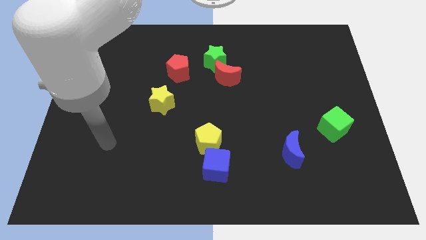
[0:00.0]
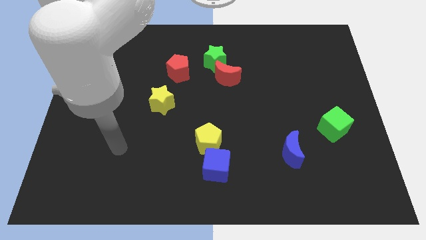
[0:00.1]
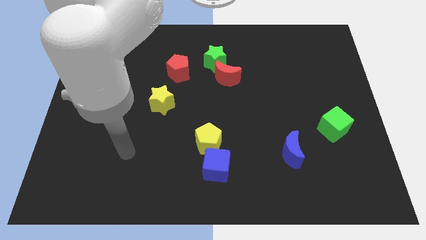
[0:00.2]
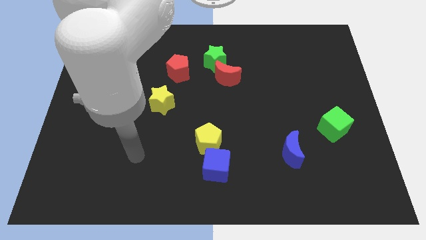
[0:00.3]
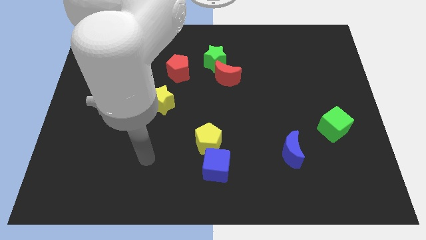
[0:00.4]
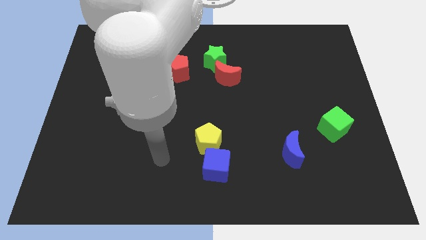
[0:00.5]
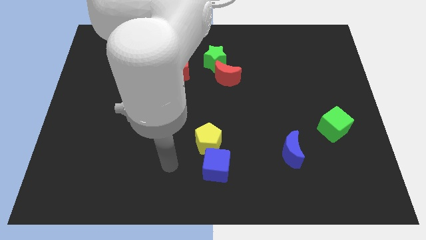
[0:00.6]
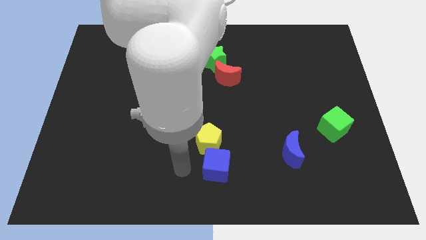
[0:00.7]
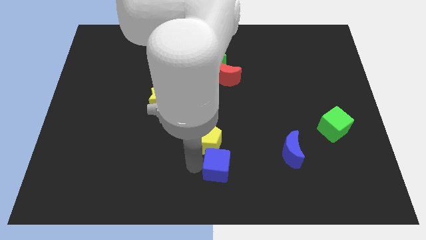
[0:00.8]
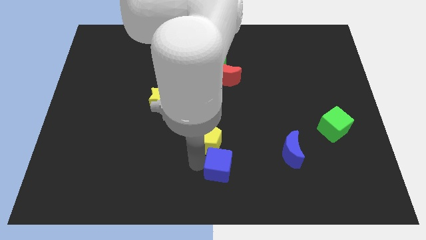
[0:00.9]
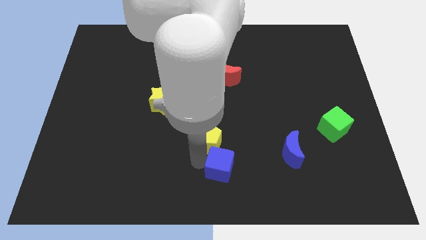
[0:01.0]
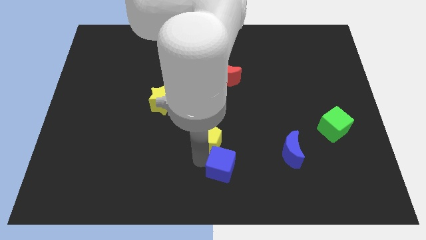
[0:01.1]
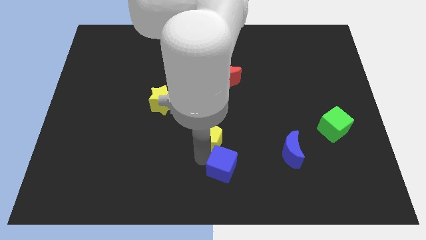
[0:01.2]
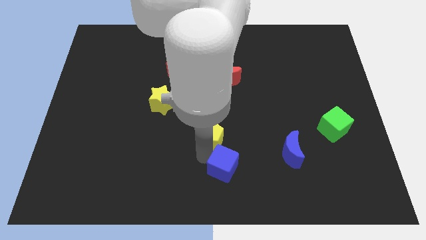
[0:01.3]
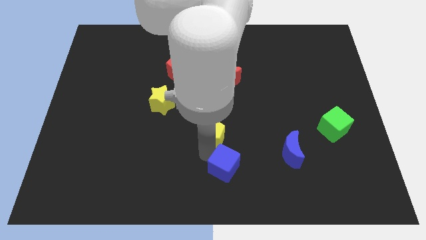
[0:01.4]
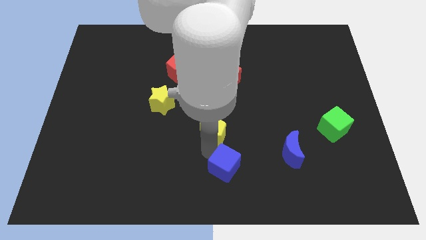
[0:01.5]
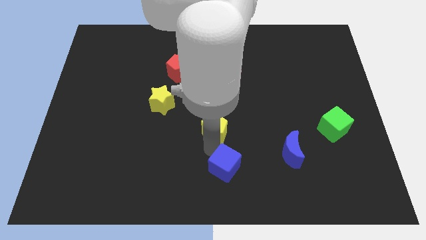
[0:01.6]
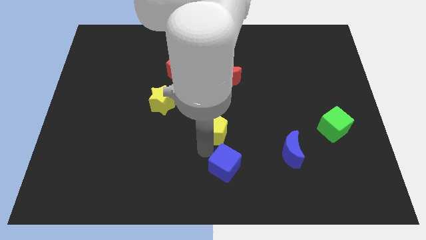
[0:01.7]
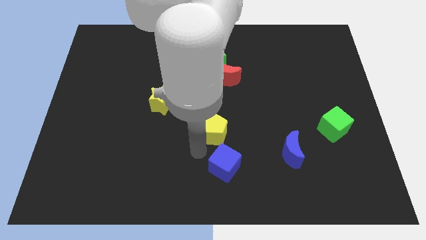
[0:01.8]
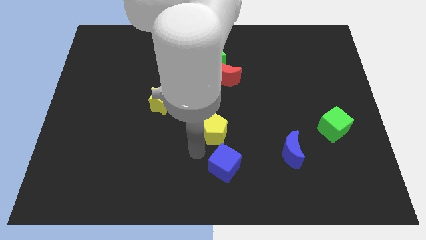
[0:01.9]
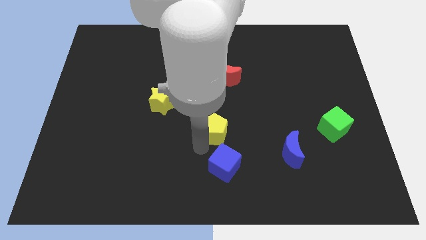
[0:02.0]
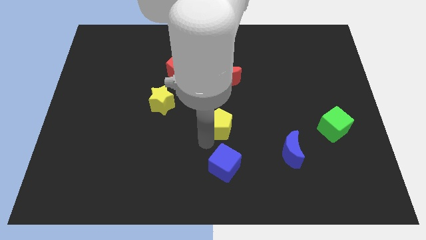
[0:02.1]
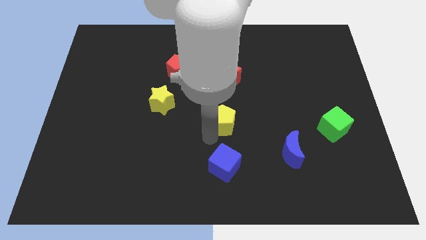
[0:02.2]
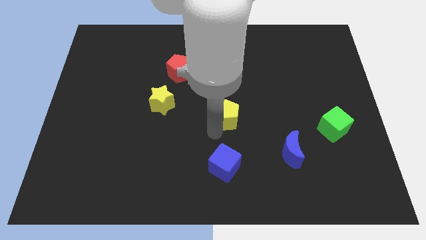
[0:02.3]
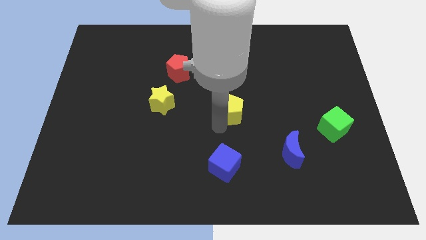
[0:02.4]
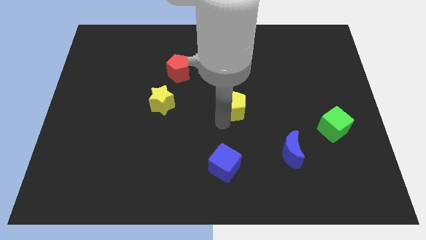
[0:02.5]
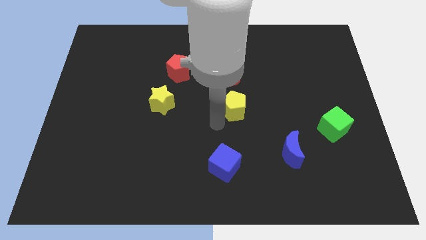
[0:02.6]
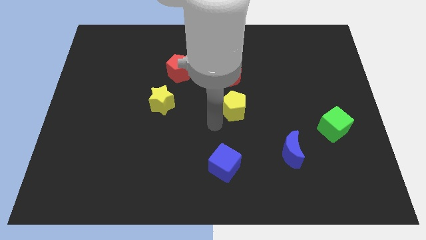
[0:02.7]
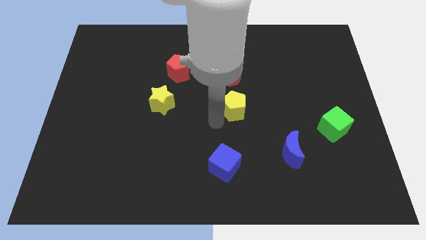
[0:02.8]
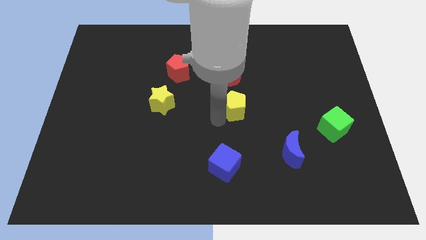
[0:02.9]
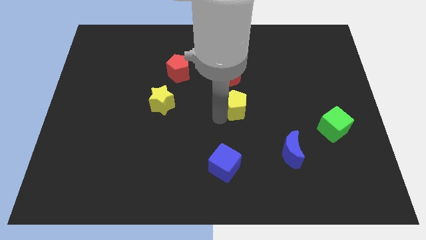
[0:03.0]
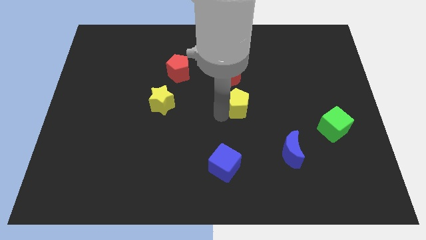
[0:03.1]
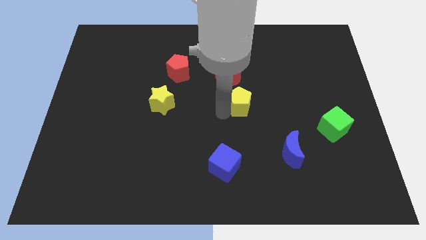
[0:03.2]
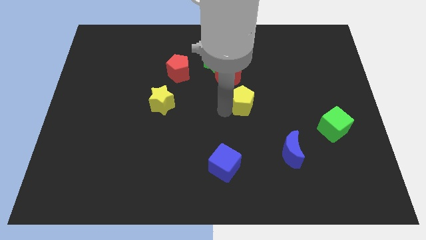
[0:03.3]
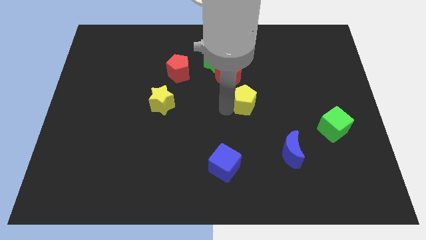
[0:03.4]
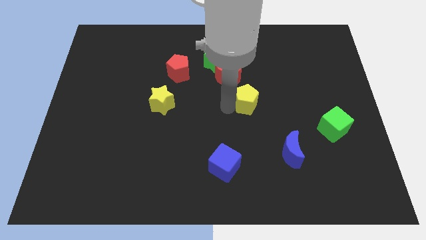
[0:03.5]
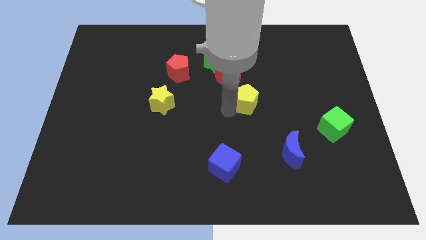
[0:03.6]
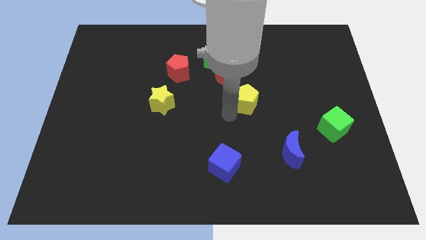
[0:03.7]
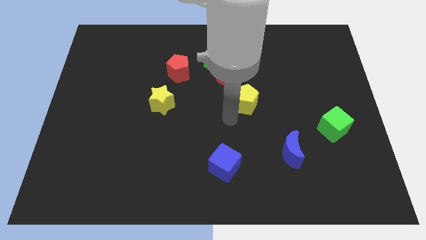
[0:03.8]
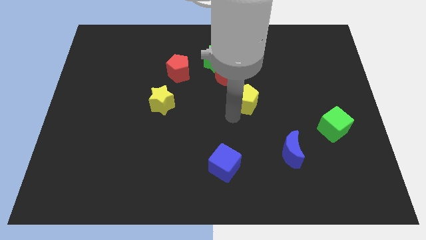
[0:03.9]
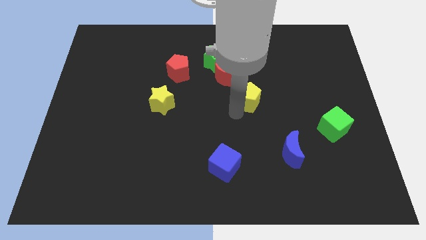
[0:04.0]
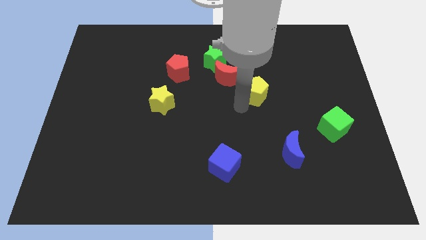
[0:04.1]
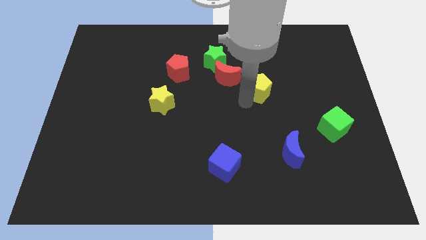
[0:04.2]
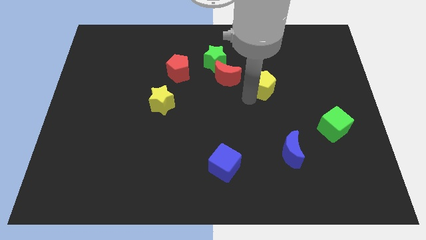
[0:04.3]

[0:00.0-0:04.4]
slide the yellow pentagon up and to the right

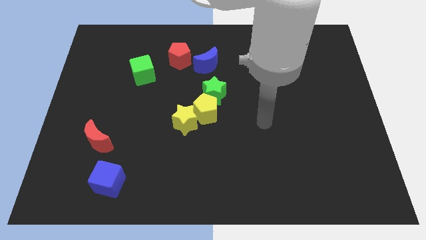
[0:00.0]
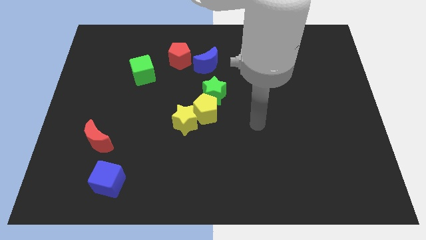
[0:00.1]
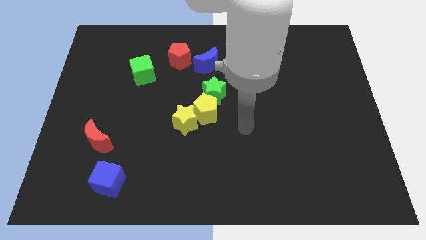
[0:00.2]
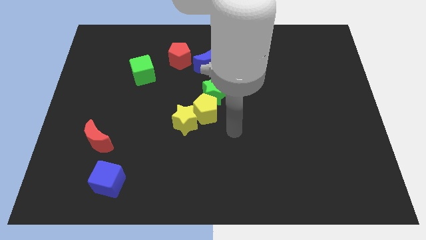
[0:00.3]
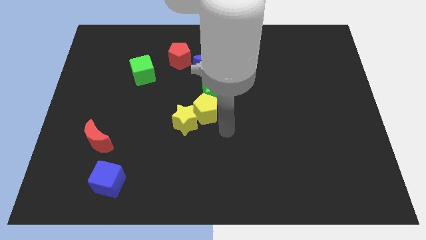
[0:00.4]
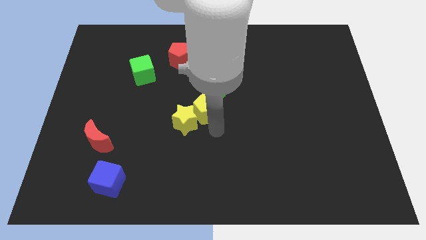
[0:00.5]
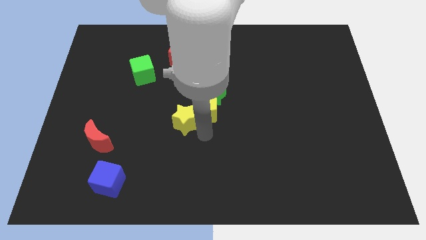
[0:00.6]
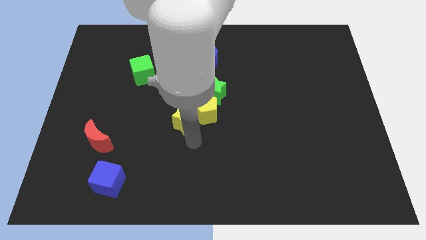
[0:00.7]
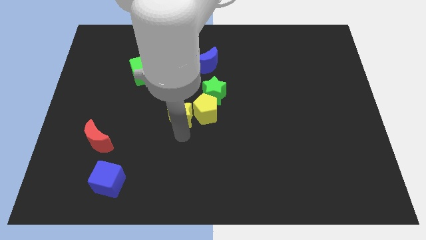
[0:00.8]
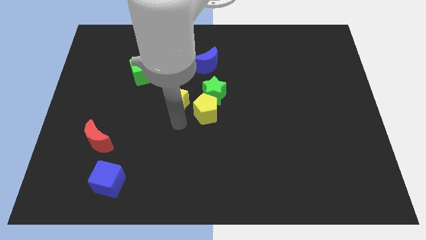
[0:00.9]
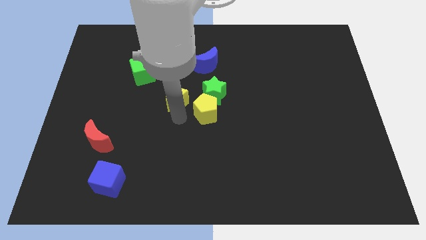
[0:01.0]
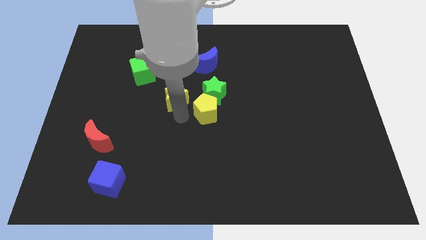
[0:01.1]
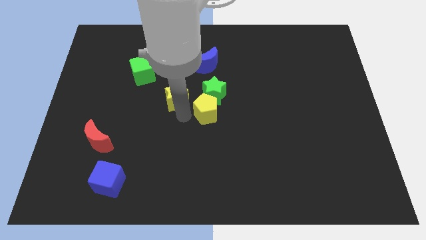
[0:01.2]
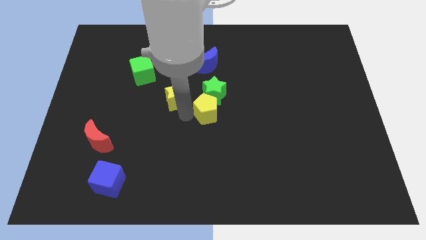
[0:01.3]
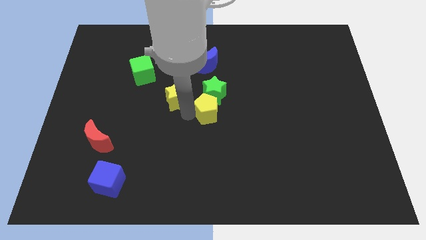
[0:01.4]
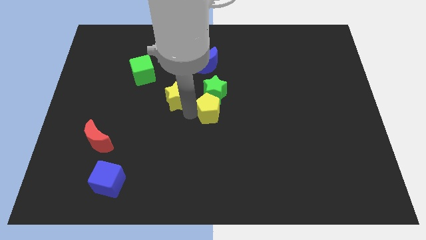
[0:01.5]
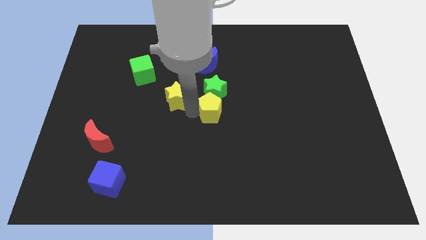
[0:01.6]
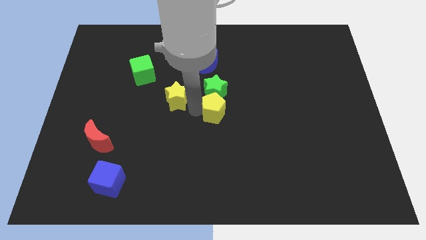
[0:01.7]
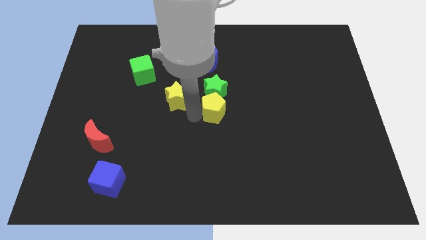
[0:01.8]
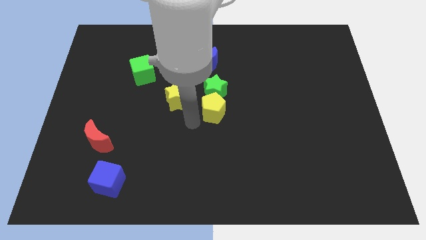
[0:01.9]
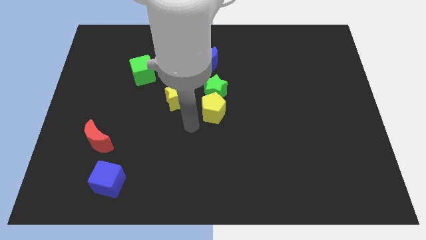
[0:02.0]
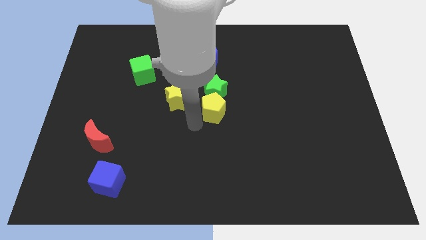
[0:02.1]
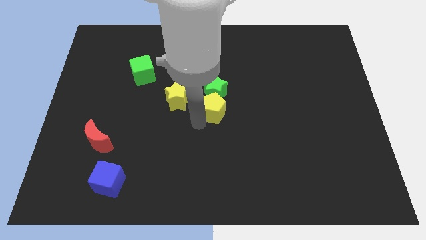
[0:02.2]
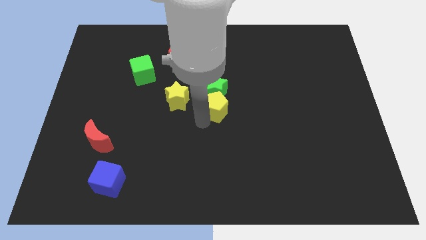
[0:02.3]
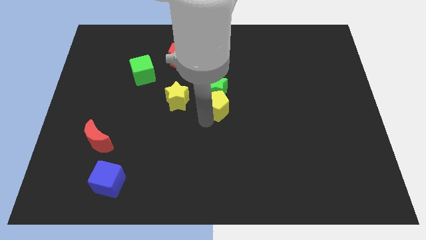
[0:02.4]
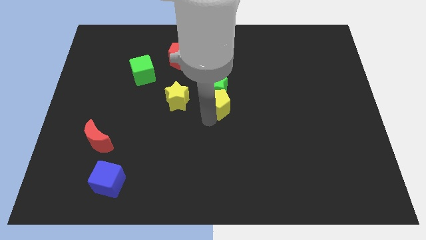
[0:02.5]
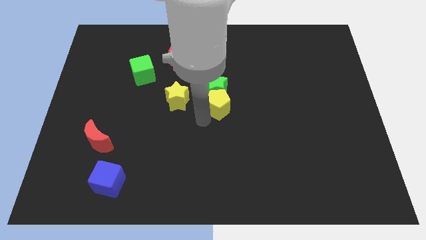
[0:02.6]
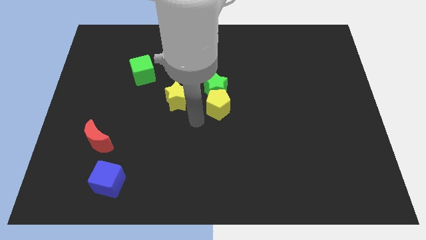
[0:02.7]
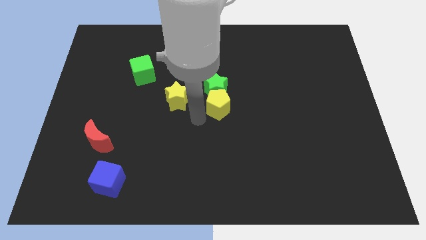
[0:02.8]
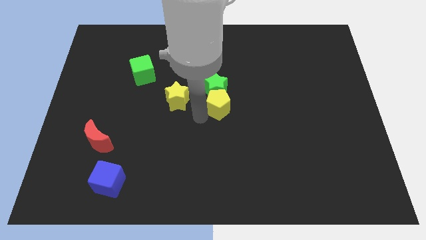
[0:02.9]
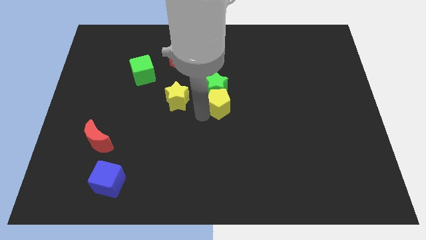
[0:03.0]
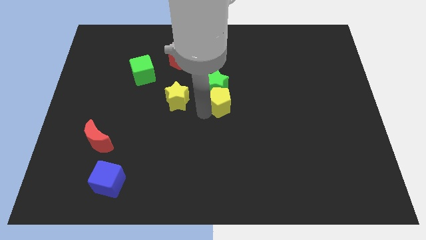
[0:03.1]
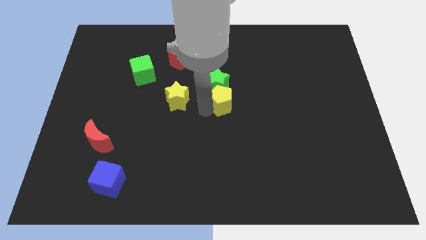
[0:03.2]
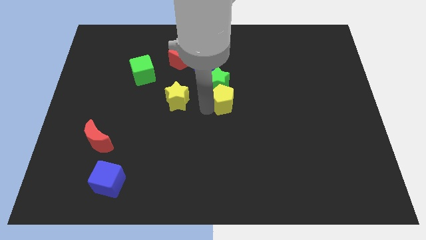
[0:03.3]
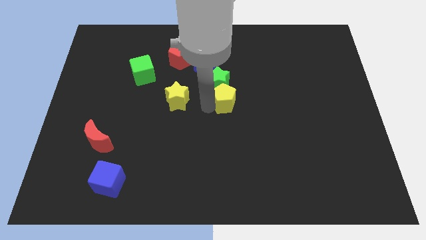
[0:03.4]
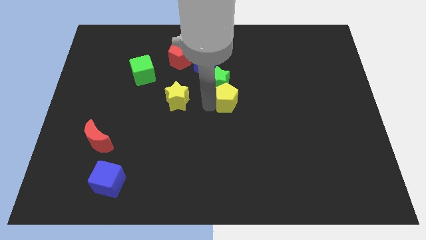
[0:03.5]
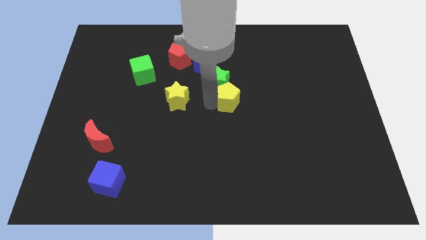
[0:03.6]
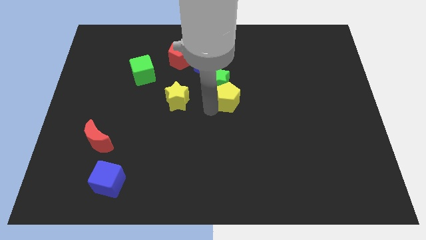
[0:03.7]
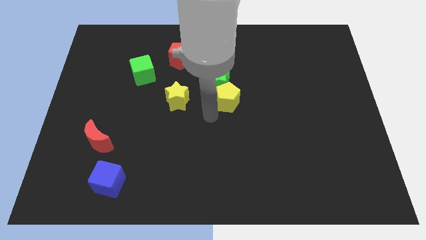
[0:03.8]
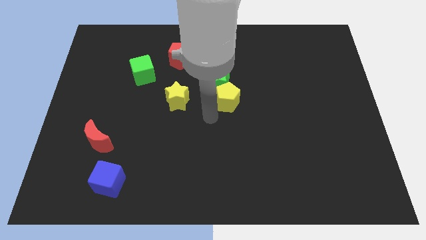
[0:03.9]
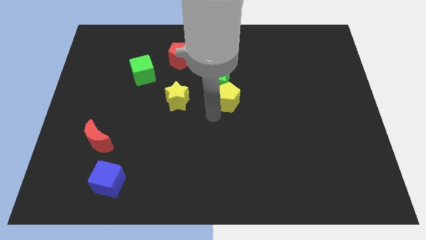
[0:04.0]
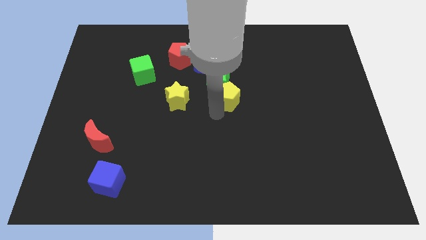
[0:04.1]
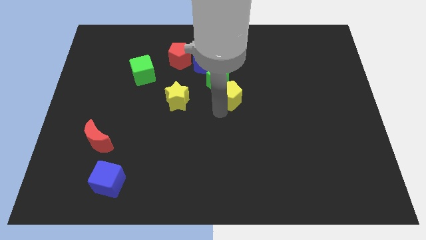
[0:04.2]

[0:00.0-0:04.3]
slightly move the yellow pentagon upwards and then right
